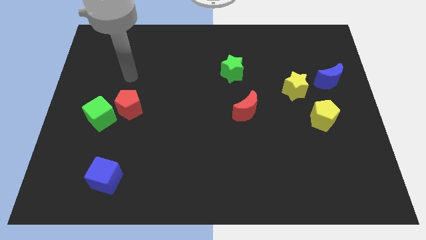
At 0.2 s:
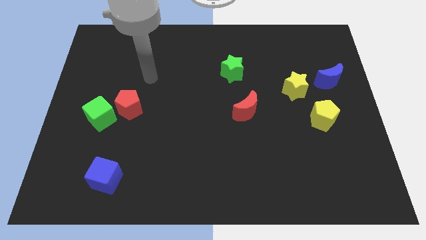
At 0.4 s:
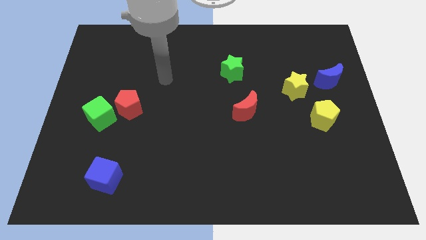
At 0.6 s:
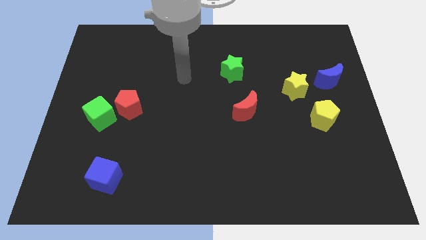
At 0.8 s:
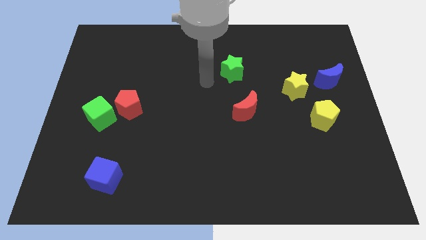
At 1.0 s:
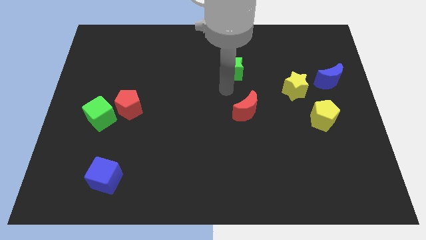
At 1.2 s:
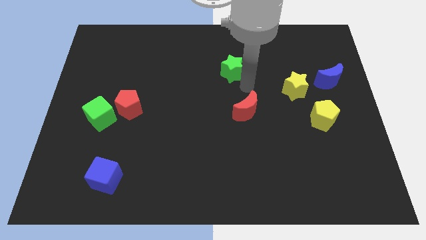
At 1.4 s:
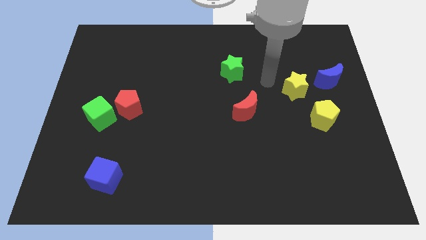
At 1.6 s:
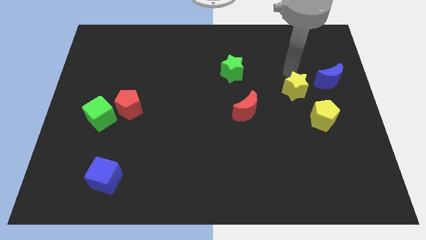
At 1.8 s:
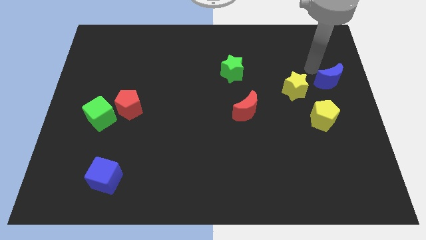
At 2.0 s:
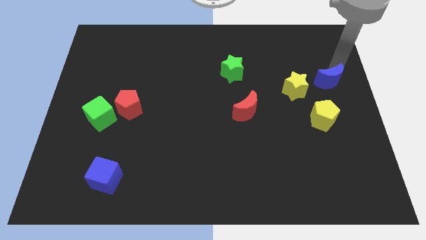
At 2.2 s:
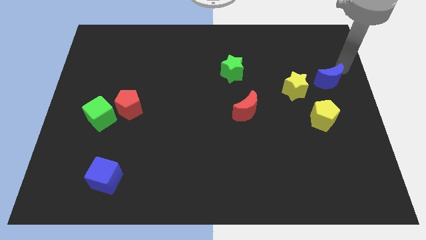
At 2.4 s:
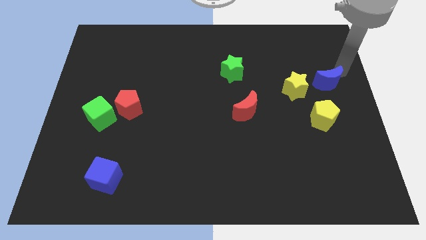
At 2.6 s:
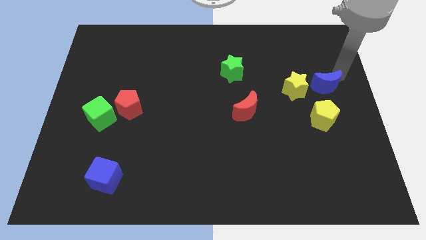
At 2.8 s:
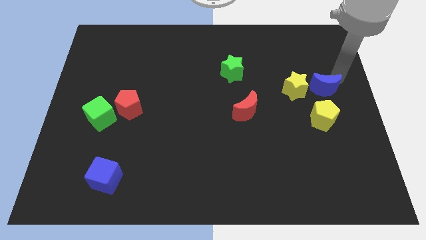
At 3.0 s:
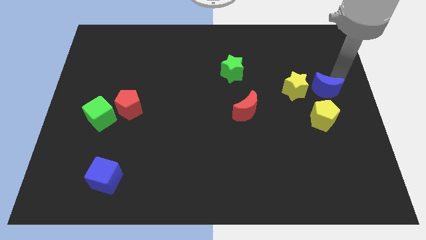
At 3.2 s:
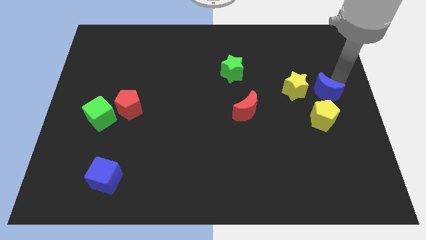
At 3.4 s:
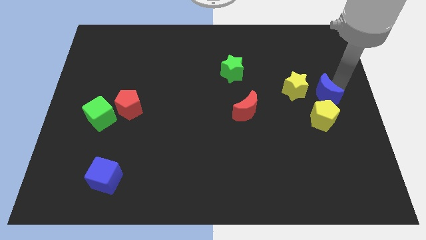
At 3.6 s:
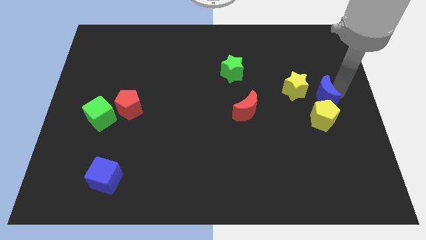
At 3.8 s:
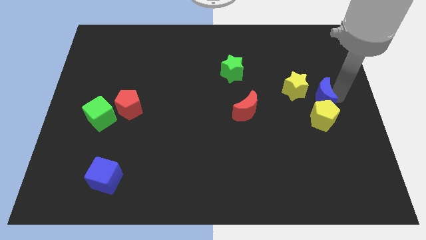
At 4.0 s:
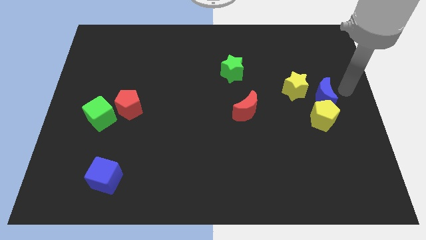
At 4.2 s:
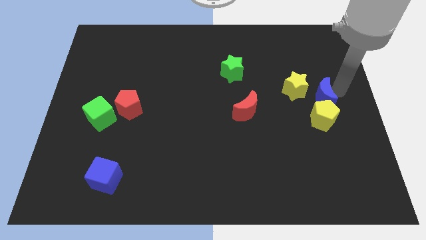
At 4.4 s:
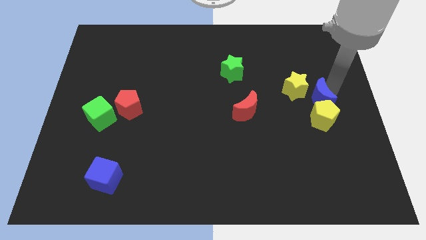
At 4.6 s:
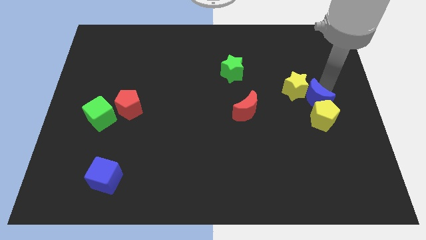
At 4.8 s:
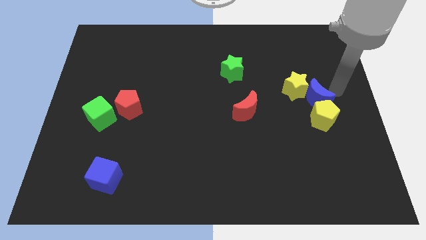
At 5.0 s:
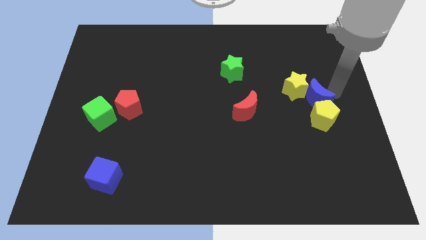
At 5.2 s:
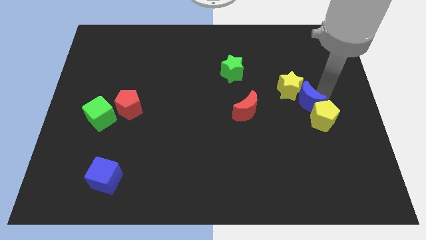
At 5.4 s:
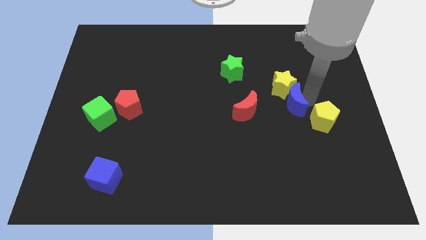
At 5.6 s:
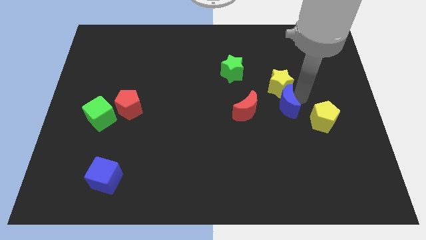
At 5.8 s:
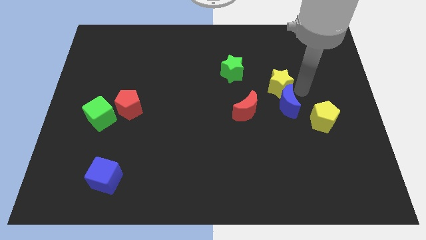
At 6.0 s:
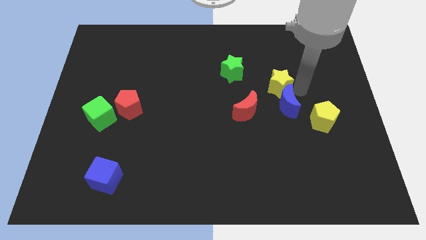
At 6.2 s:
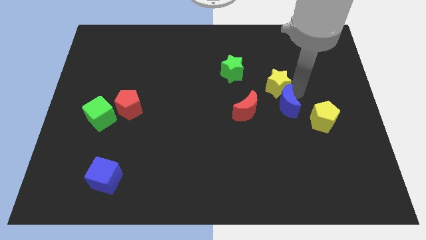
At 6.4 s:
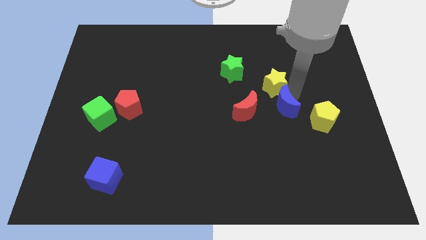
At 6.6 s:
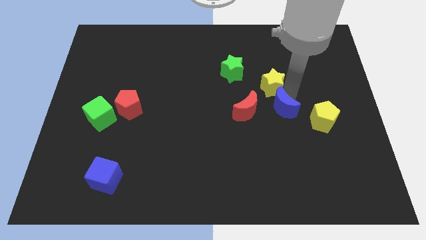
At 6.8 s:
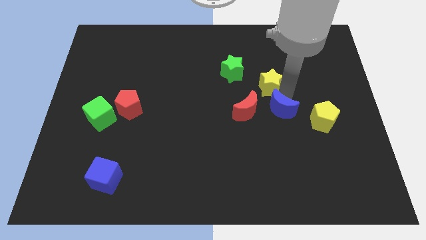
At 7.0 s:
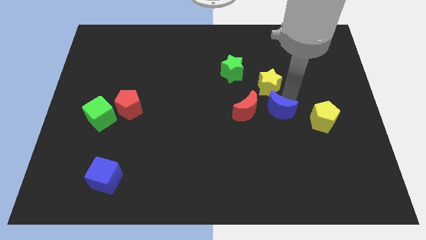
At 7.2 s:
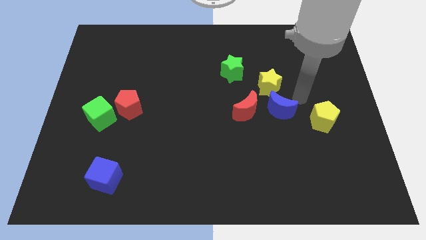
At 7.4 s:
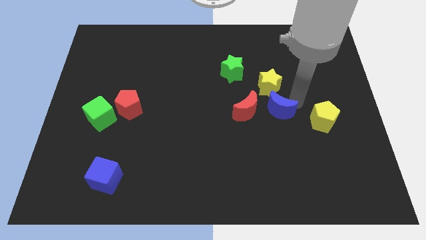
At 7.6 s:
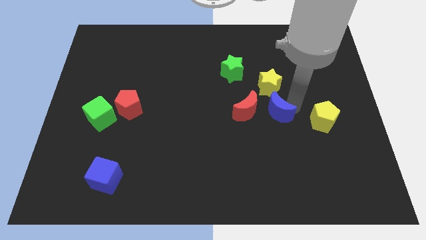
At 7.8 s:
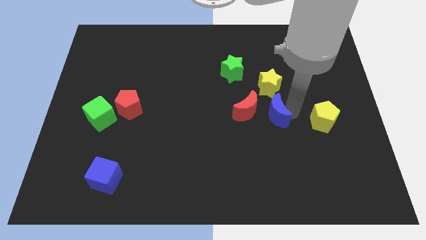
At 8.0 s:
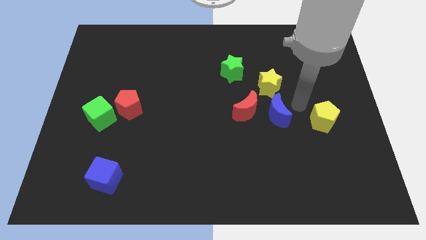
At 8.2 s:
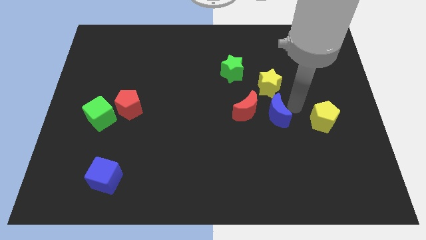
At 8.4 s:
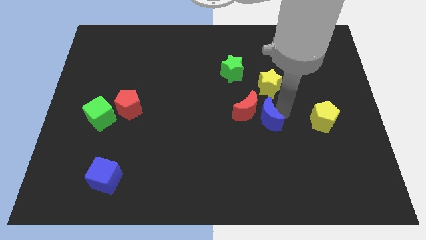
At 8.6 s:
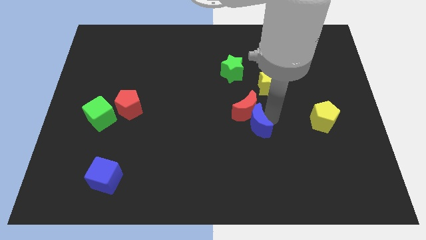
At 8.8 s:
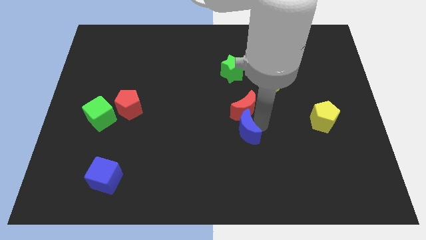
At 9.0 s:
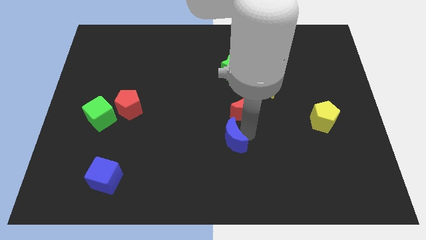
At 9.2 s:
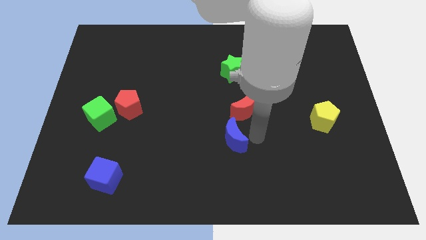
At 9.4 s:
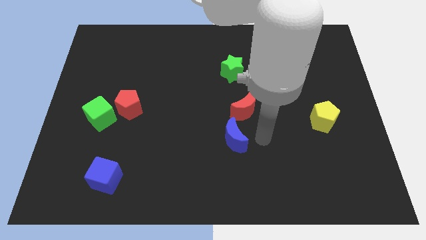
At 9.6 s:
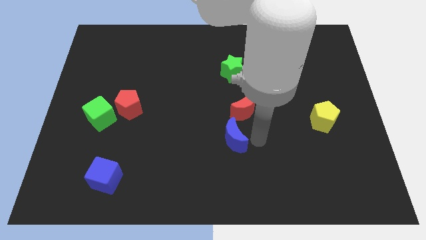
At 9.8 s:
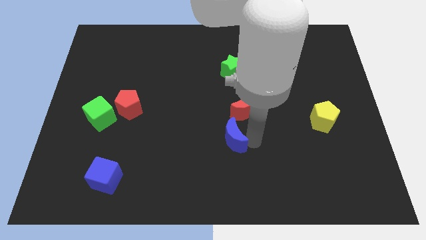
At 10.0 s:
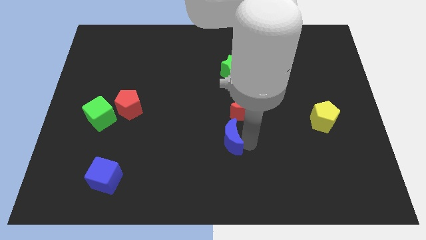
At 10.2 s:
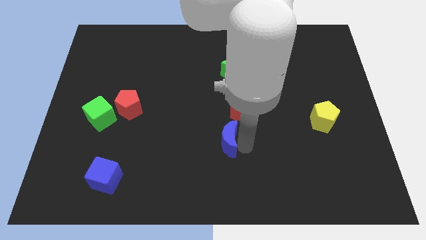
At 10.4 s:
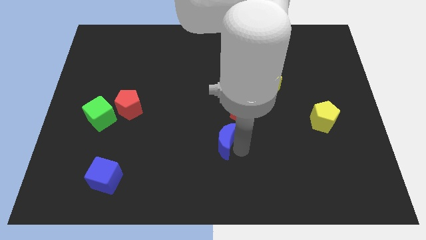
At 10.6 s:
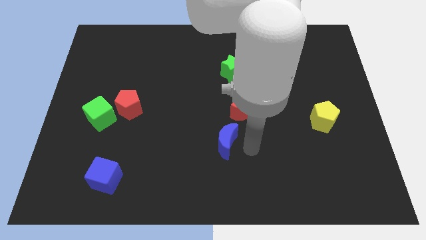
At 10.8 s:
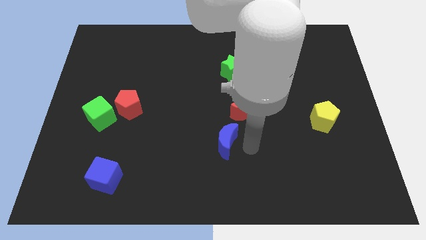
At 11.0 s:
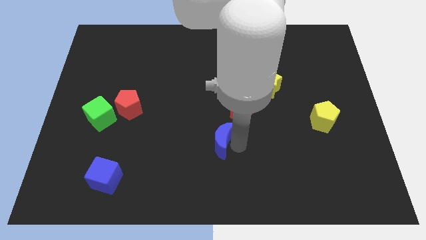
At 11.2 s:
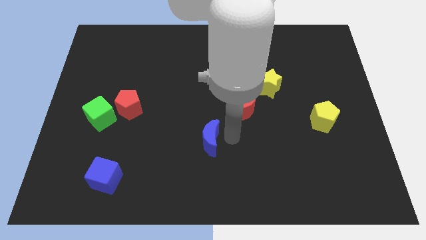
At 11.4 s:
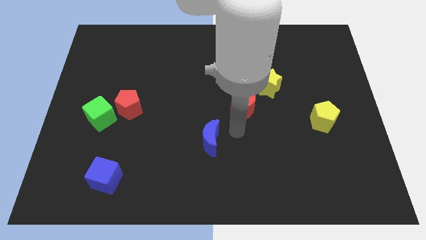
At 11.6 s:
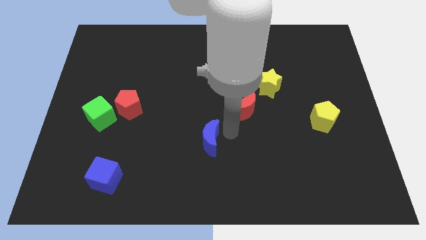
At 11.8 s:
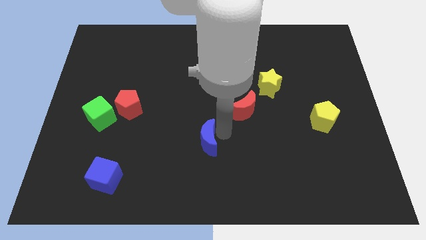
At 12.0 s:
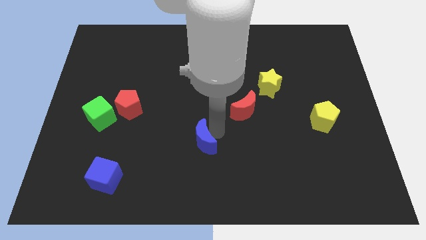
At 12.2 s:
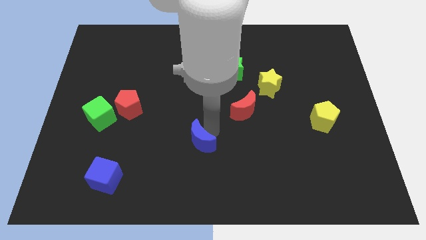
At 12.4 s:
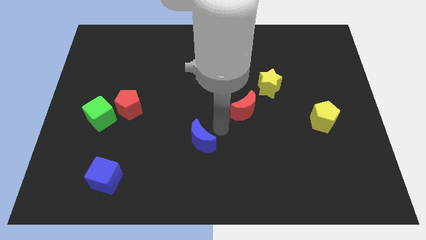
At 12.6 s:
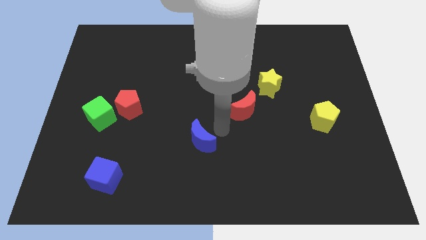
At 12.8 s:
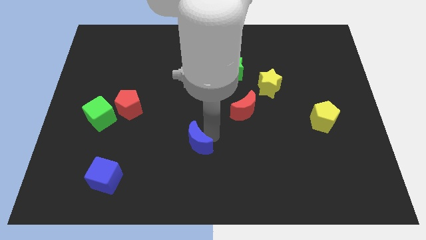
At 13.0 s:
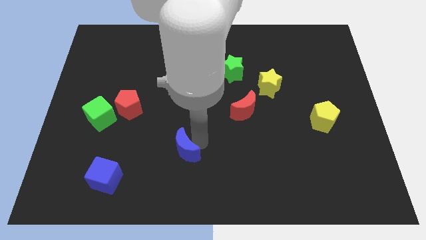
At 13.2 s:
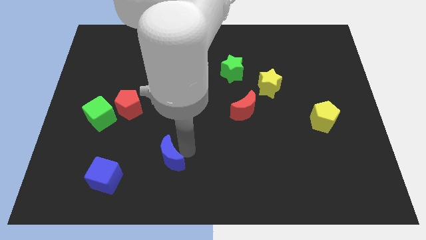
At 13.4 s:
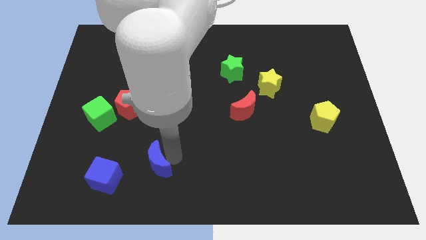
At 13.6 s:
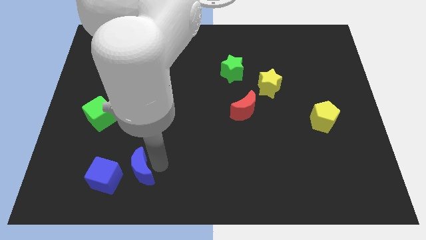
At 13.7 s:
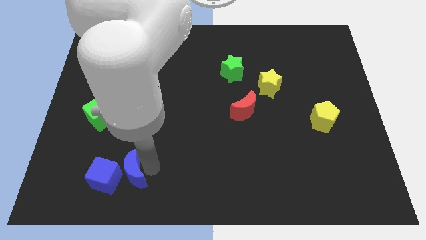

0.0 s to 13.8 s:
put the blue moon next to the blue cube
